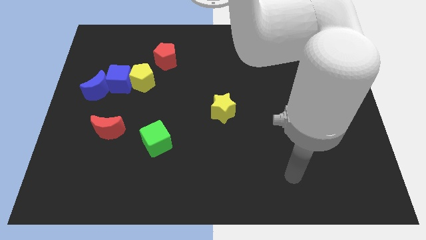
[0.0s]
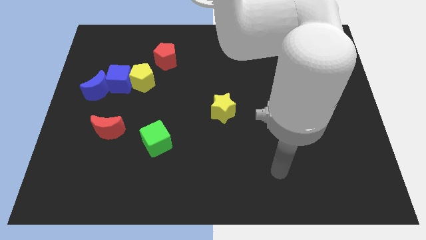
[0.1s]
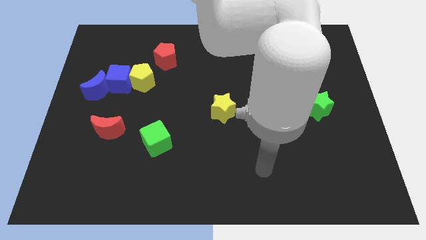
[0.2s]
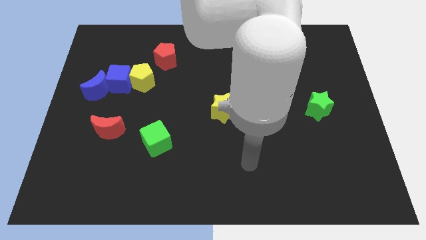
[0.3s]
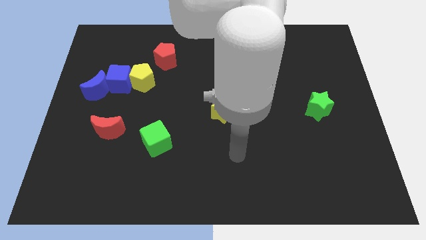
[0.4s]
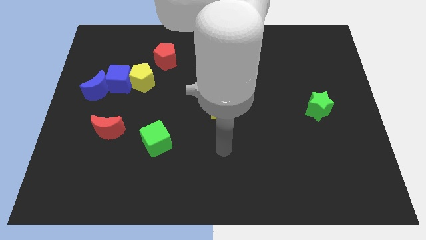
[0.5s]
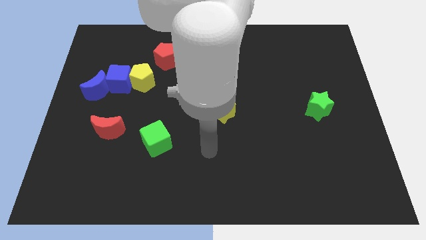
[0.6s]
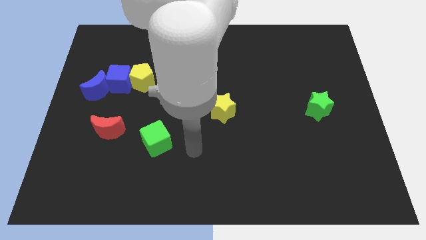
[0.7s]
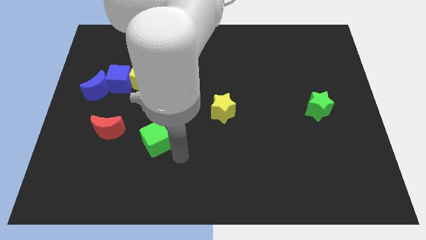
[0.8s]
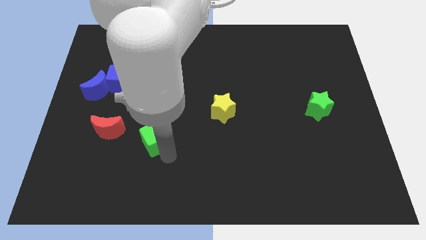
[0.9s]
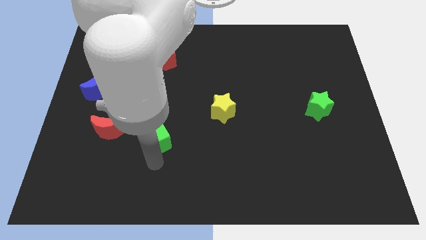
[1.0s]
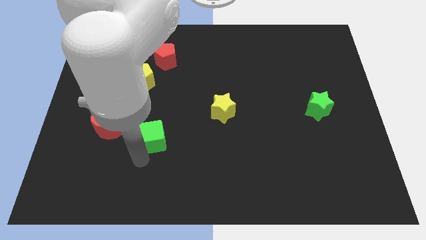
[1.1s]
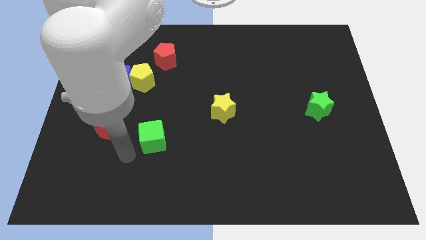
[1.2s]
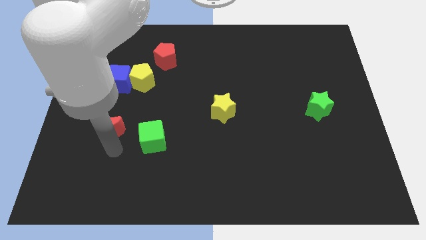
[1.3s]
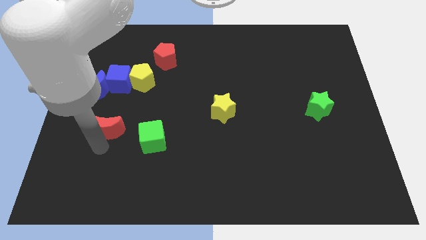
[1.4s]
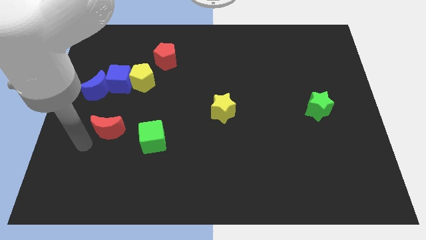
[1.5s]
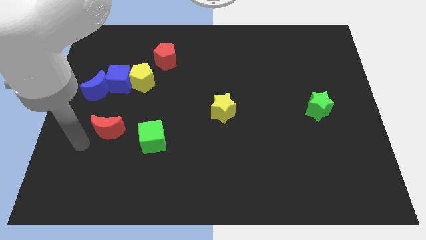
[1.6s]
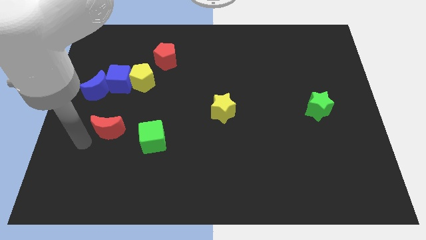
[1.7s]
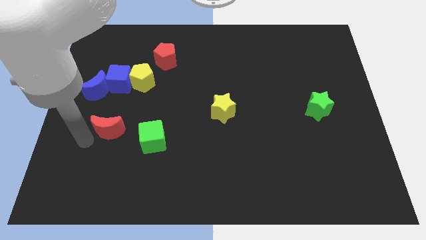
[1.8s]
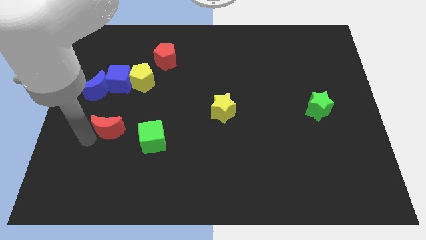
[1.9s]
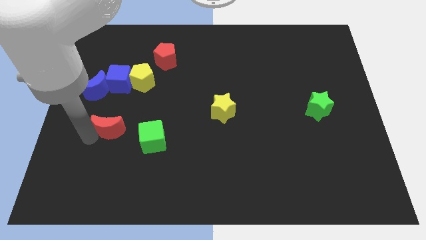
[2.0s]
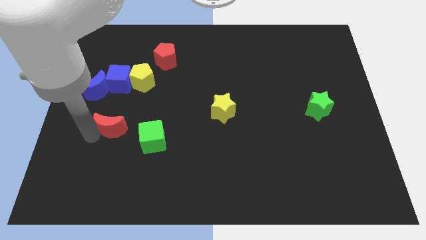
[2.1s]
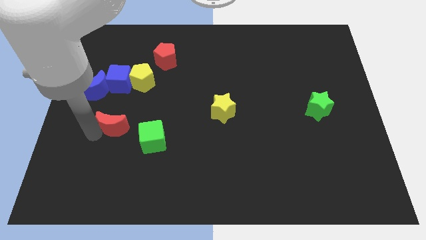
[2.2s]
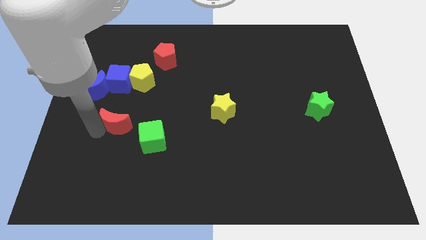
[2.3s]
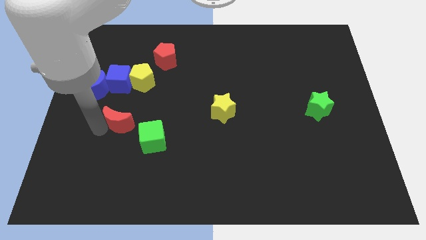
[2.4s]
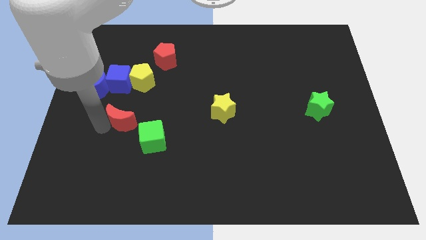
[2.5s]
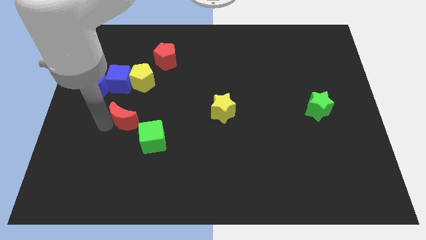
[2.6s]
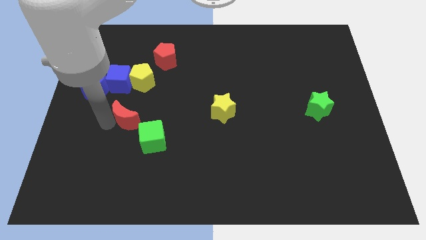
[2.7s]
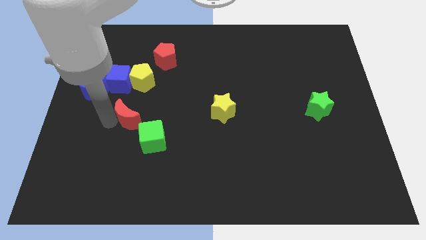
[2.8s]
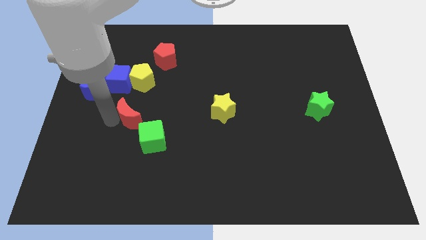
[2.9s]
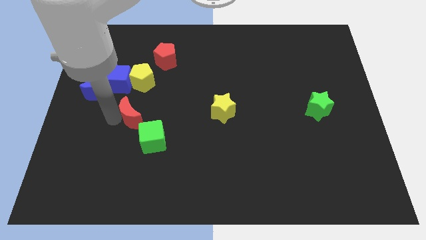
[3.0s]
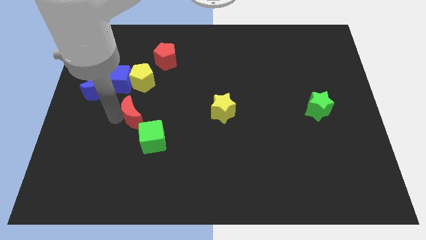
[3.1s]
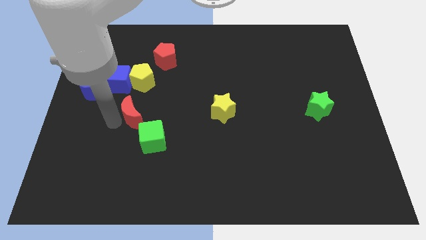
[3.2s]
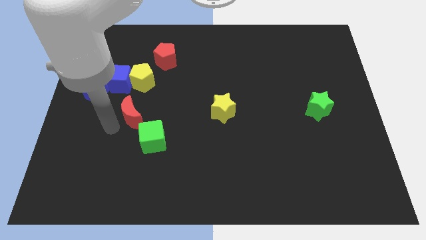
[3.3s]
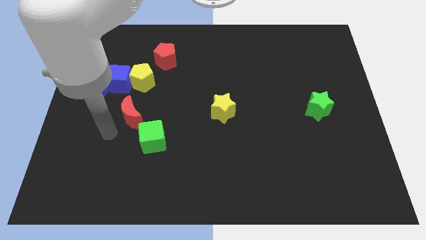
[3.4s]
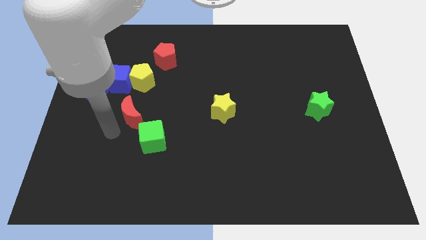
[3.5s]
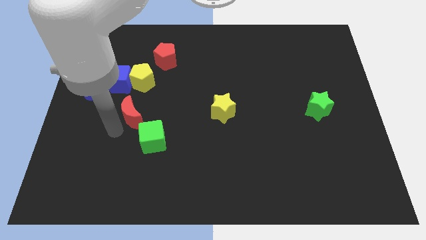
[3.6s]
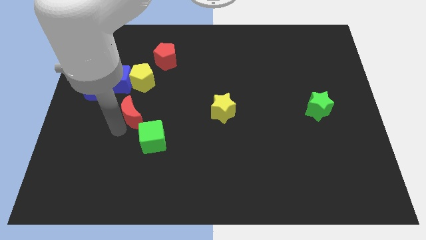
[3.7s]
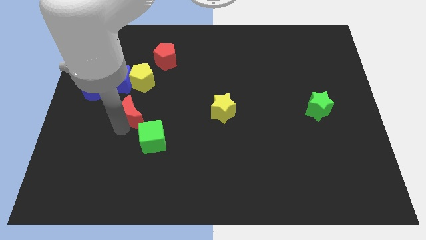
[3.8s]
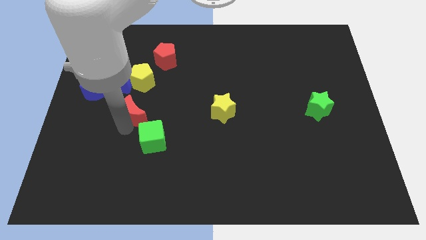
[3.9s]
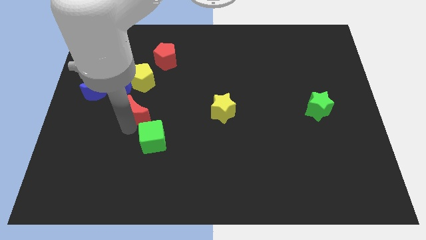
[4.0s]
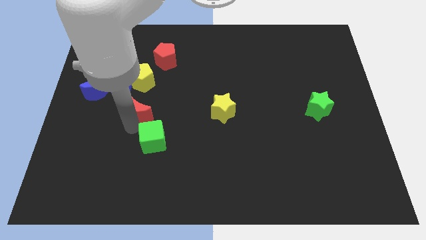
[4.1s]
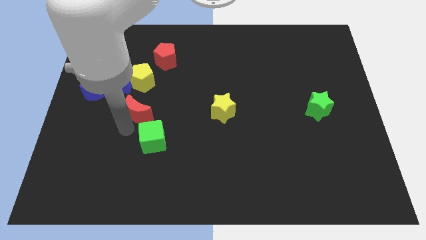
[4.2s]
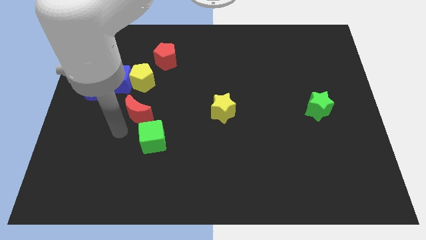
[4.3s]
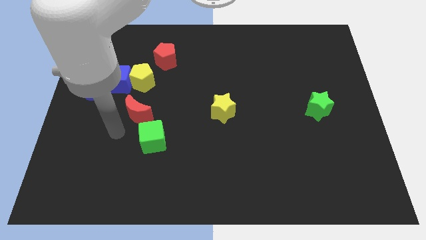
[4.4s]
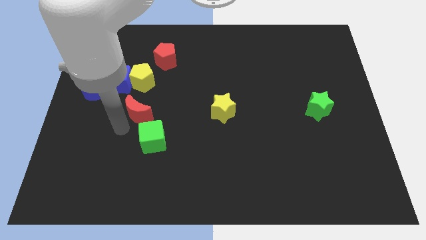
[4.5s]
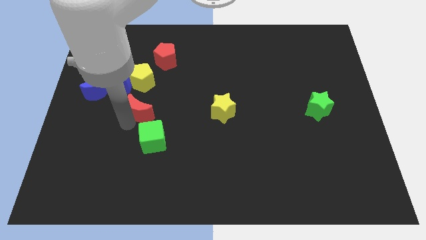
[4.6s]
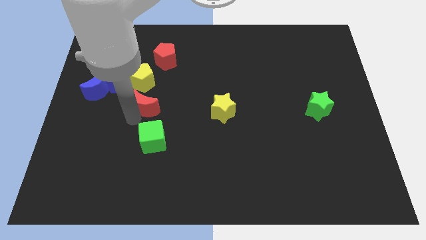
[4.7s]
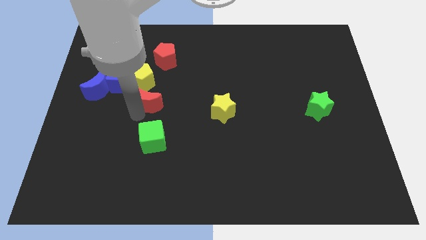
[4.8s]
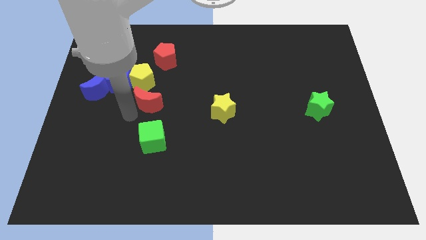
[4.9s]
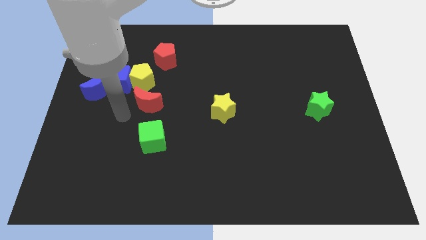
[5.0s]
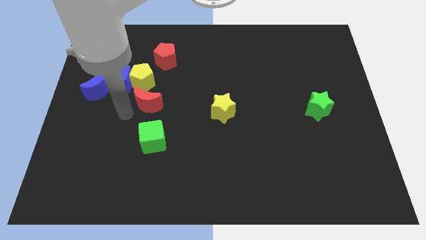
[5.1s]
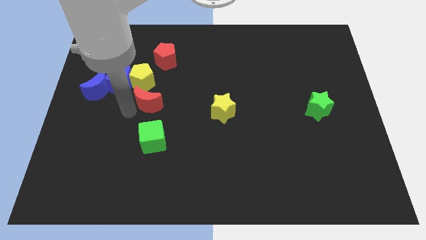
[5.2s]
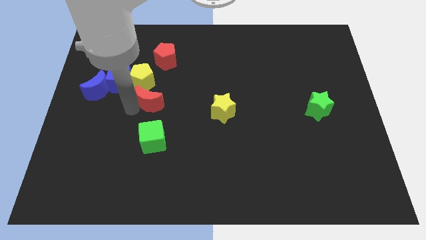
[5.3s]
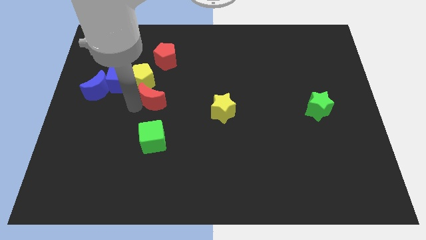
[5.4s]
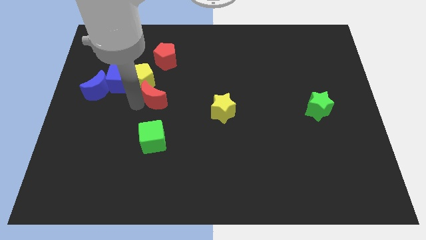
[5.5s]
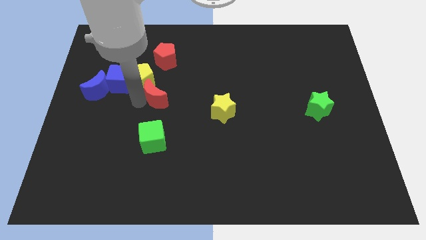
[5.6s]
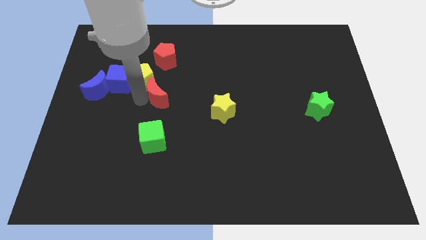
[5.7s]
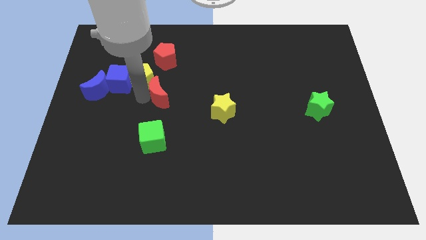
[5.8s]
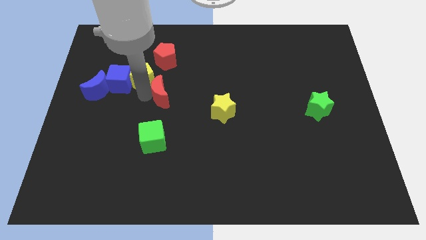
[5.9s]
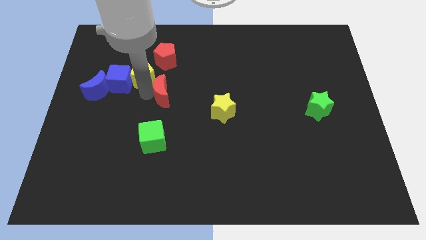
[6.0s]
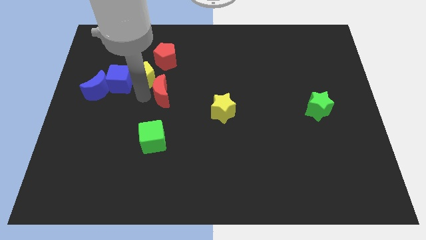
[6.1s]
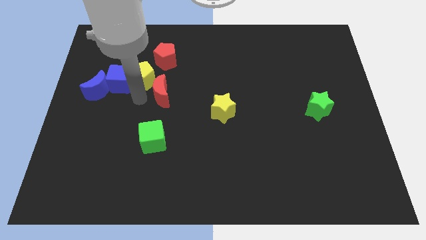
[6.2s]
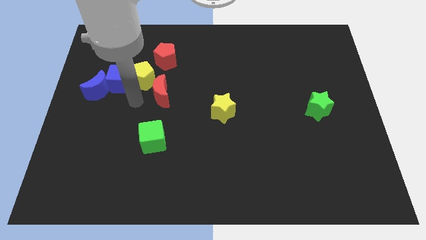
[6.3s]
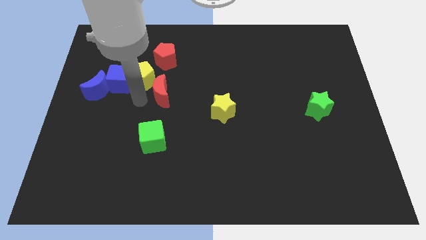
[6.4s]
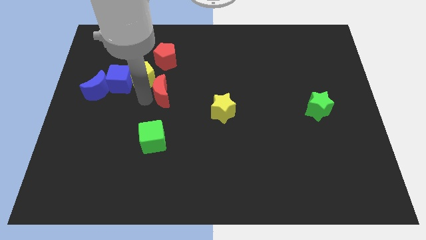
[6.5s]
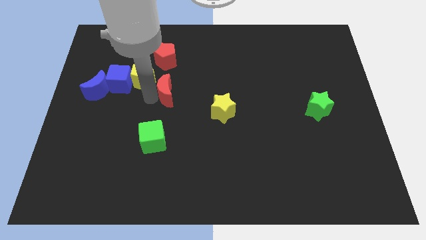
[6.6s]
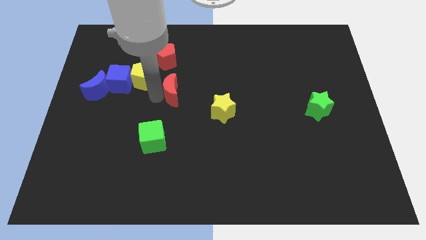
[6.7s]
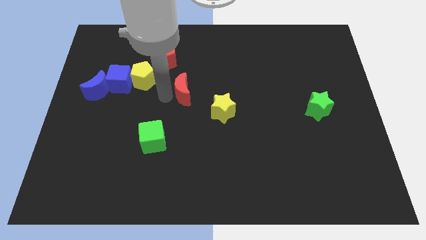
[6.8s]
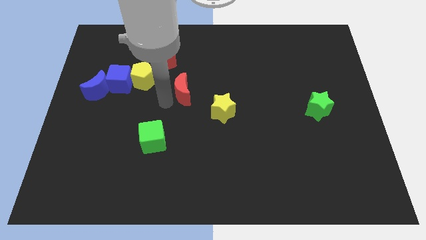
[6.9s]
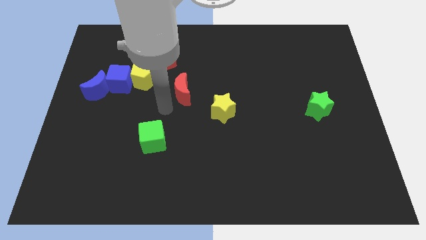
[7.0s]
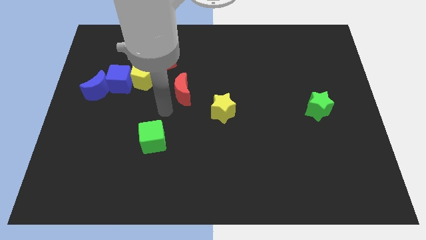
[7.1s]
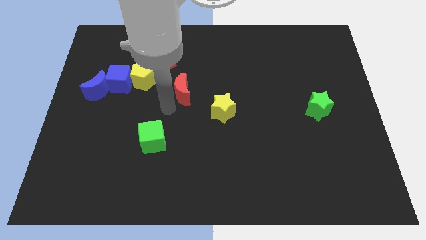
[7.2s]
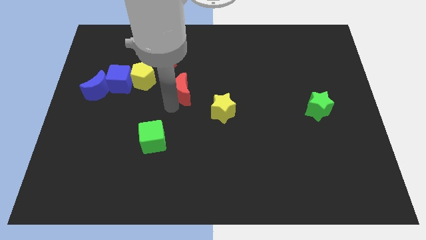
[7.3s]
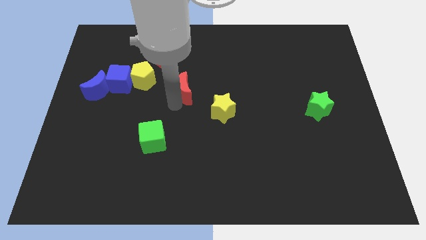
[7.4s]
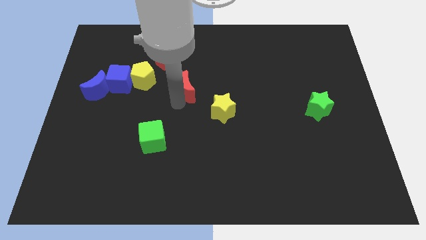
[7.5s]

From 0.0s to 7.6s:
move the red moon upwards and then to the right

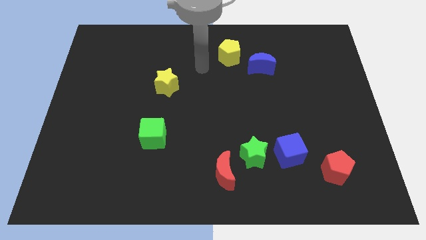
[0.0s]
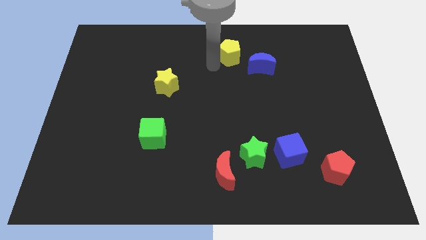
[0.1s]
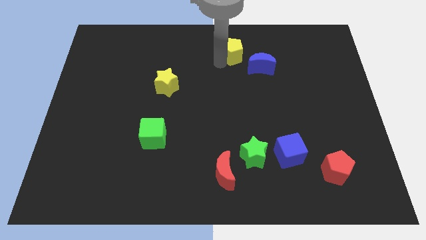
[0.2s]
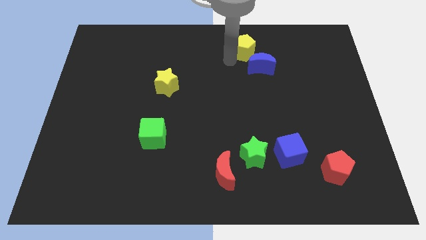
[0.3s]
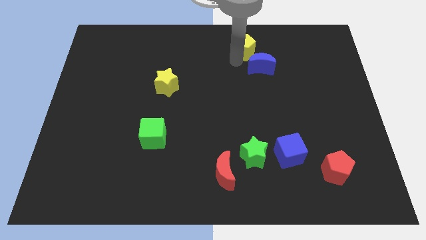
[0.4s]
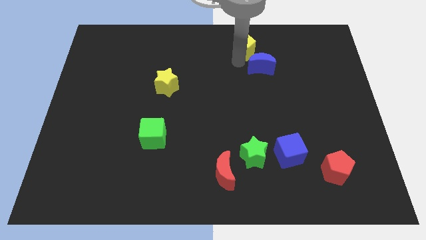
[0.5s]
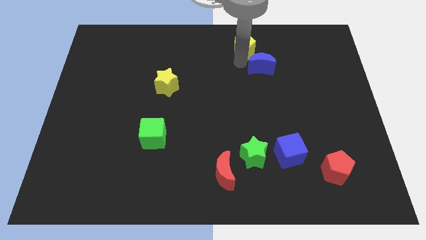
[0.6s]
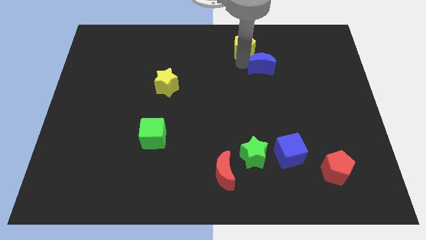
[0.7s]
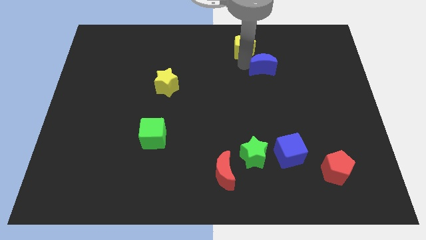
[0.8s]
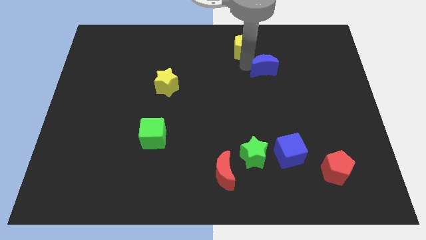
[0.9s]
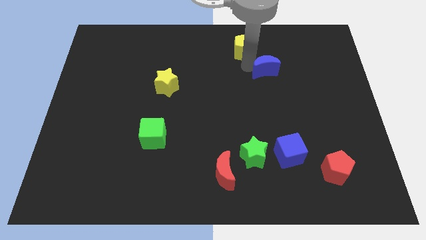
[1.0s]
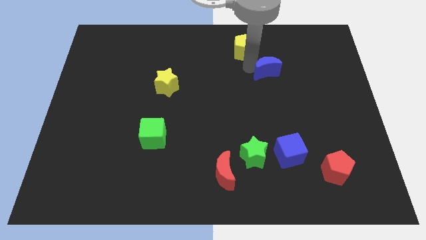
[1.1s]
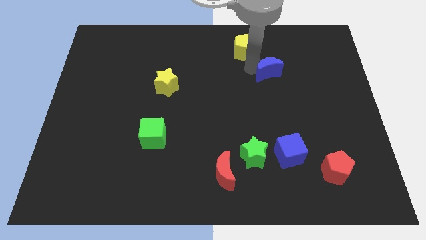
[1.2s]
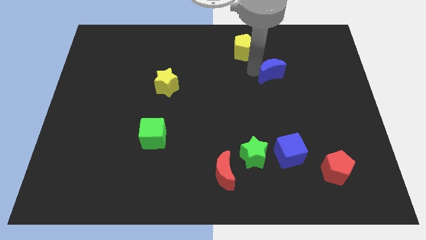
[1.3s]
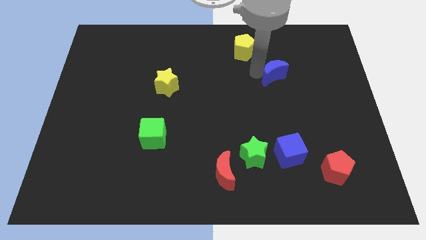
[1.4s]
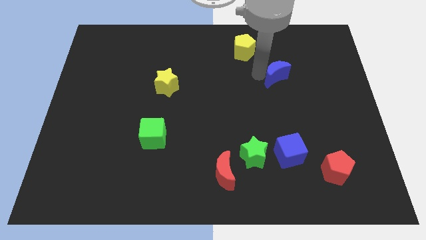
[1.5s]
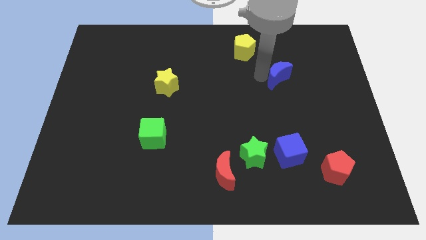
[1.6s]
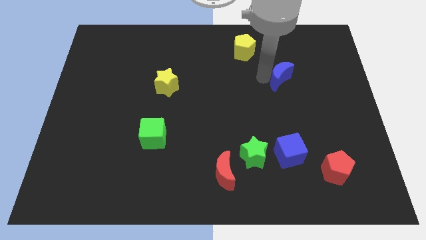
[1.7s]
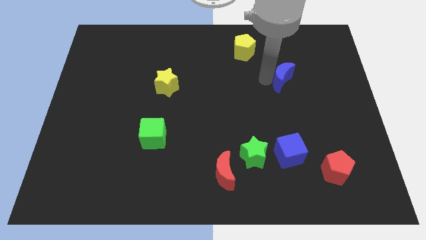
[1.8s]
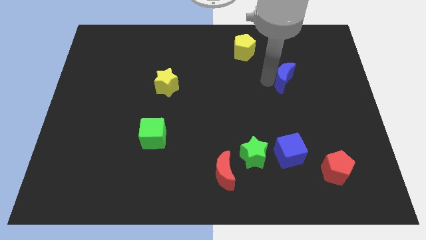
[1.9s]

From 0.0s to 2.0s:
slide the blue moon downwards and to the right diagonally a little bit
